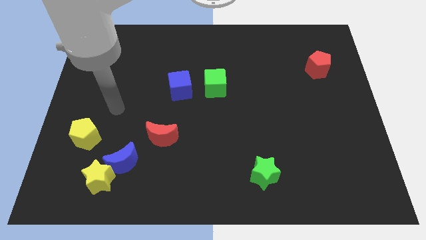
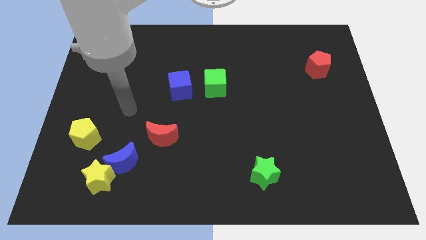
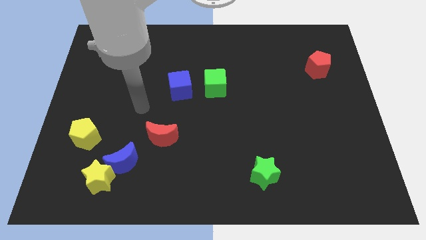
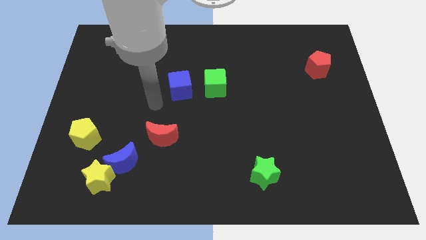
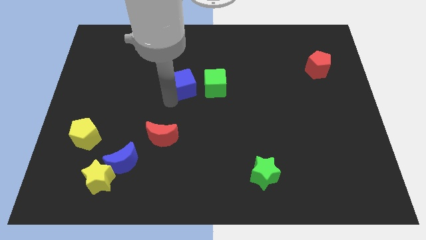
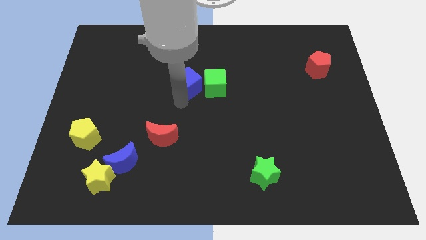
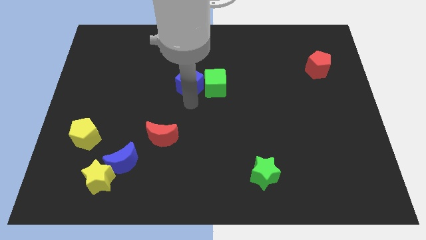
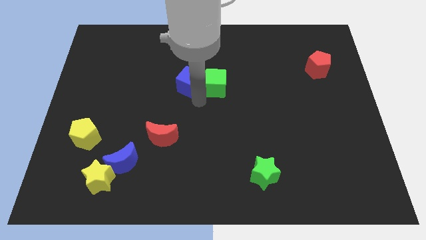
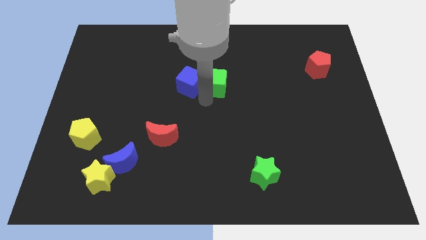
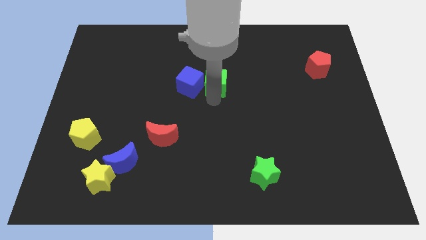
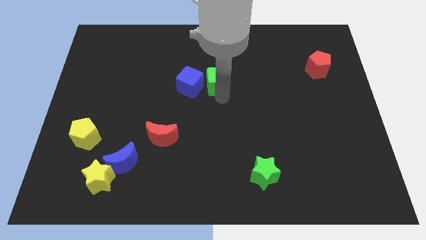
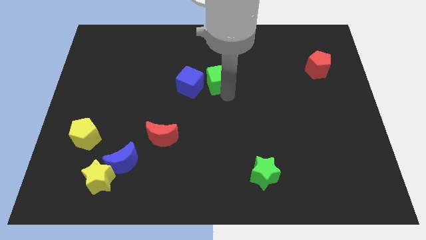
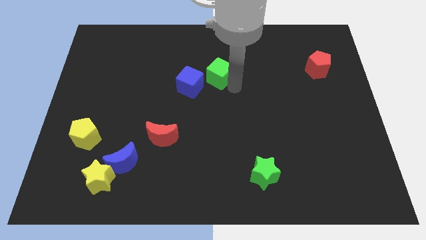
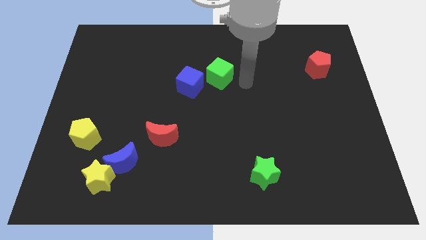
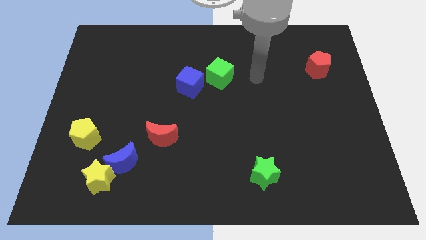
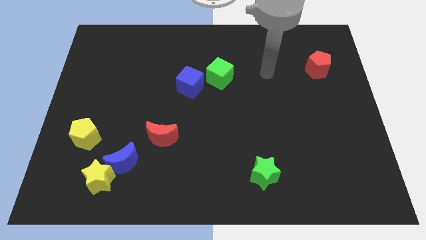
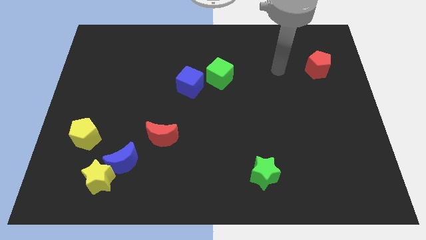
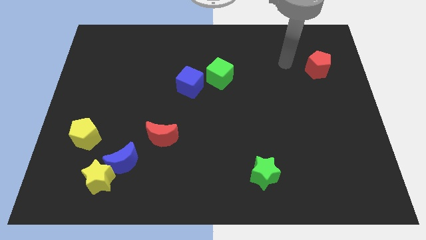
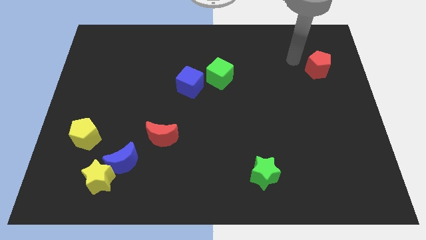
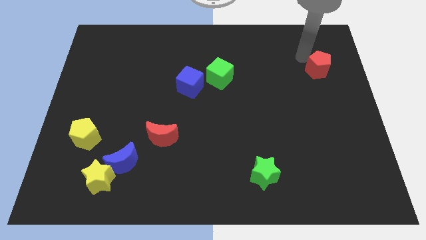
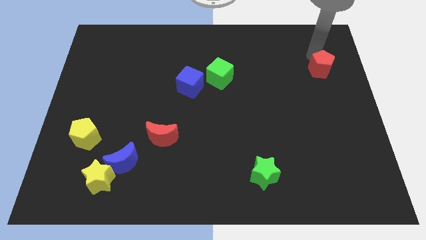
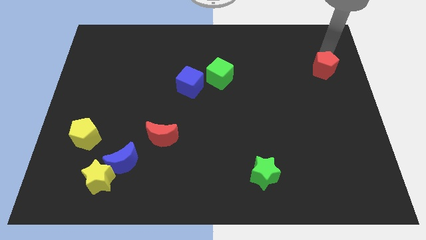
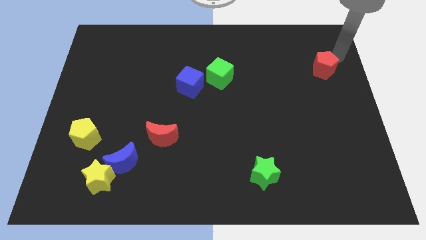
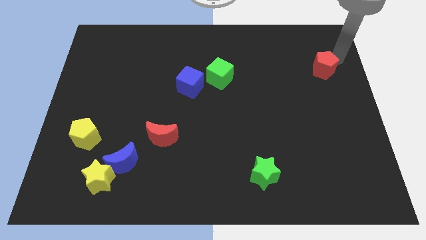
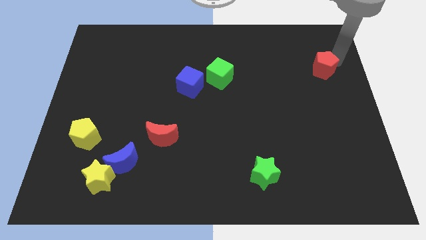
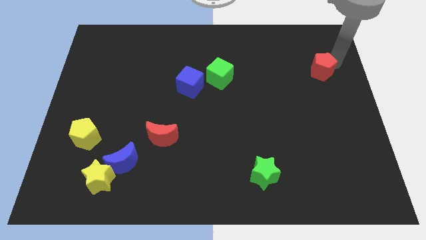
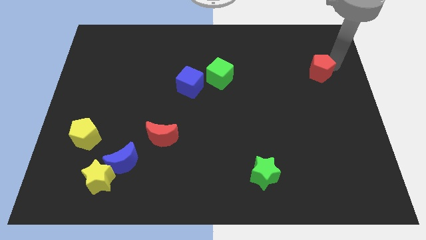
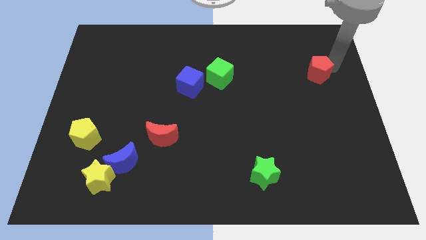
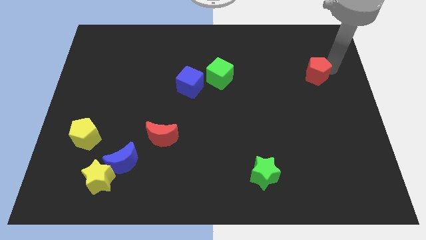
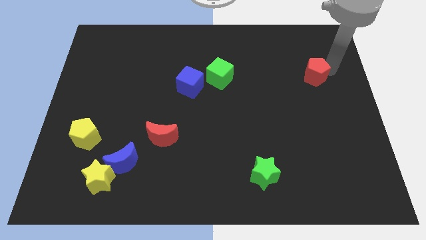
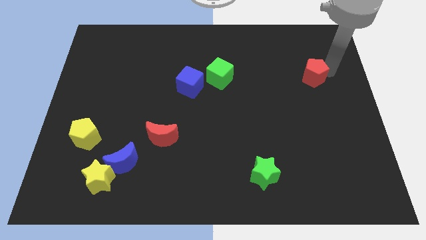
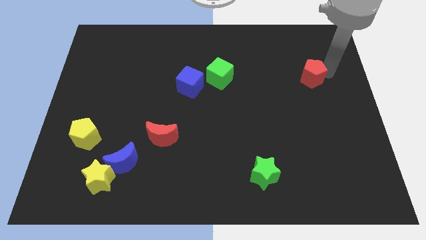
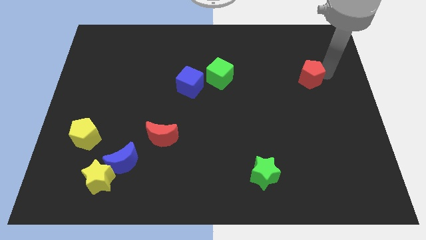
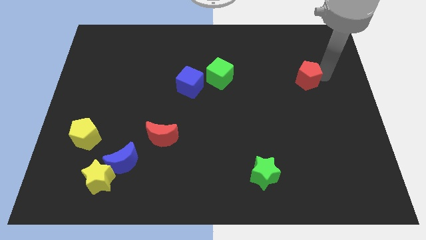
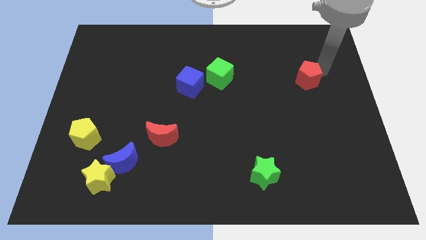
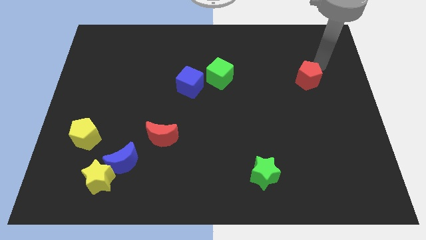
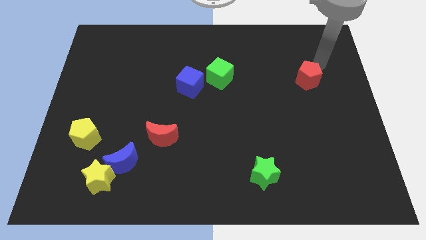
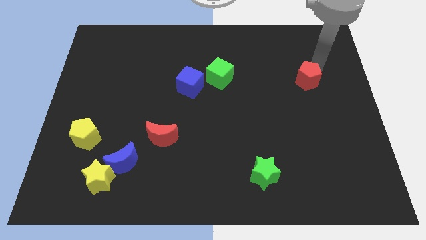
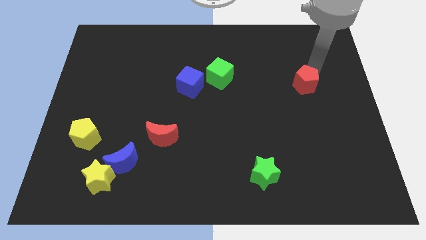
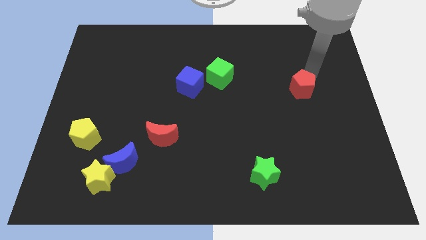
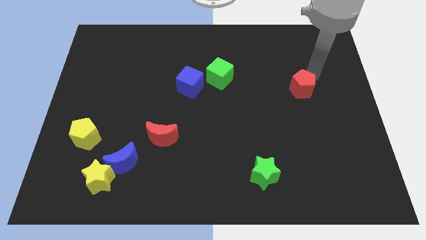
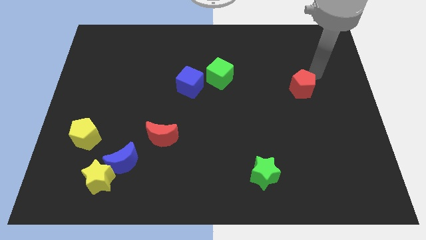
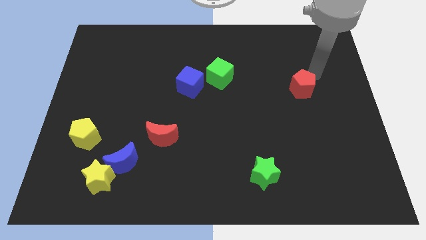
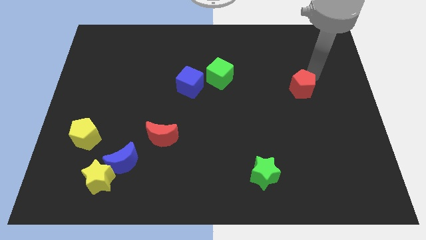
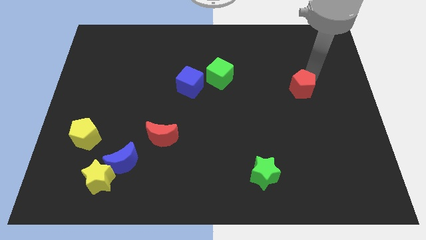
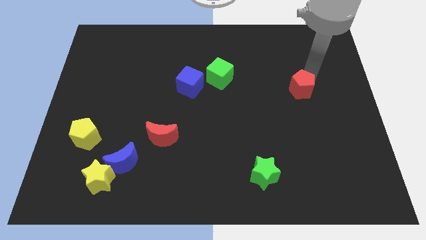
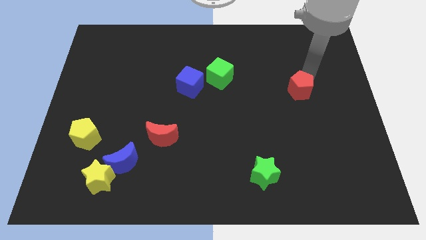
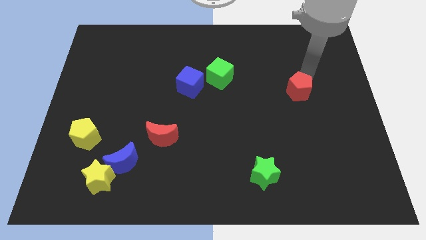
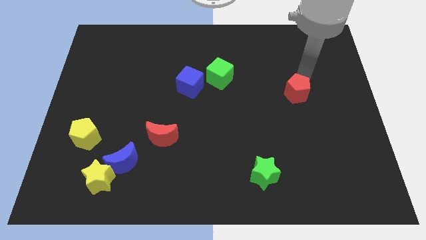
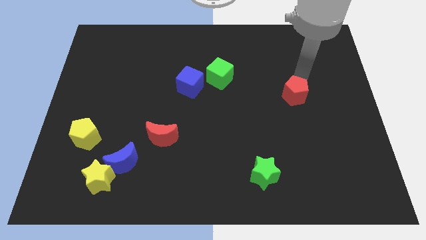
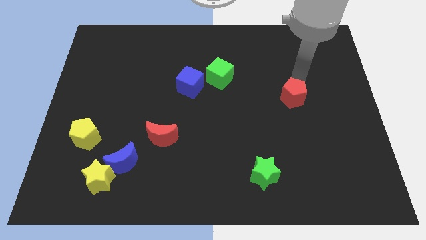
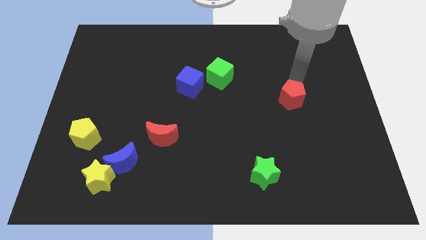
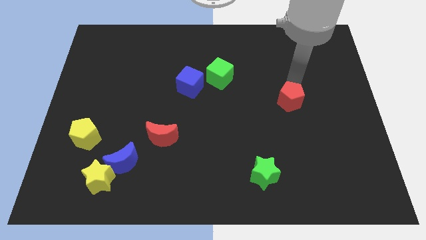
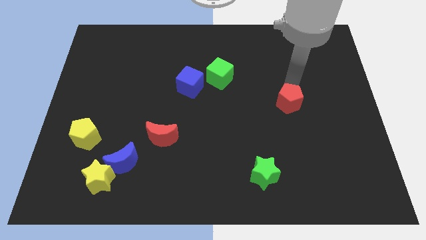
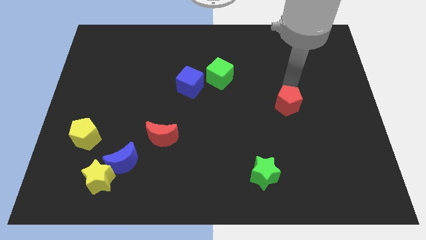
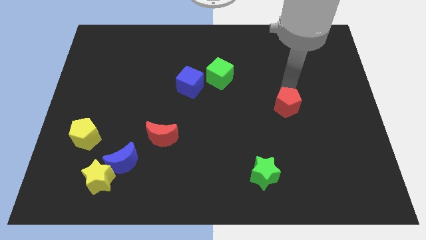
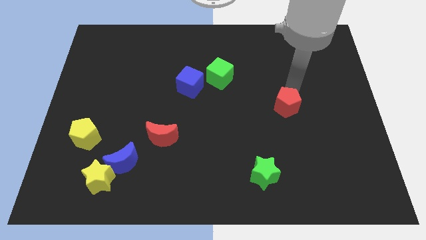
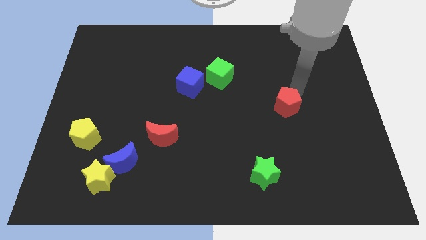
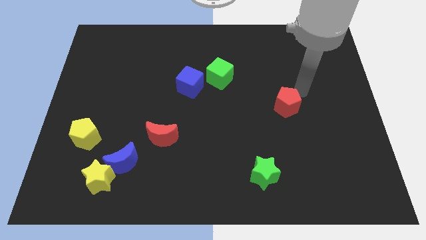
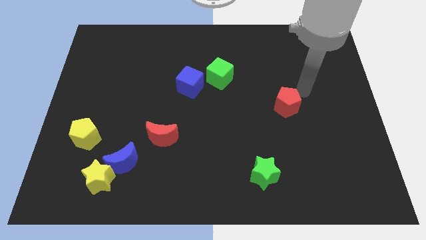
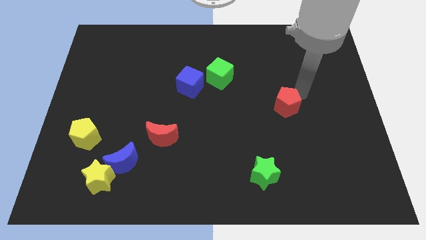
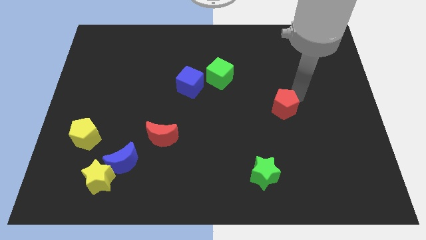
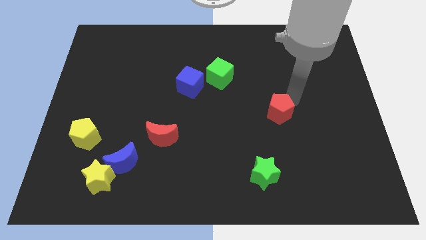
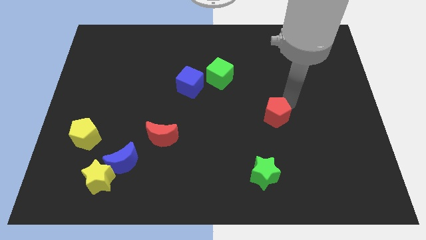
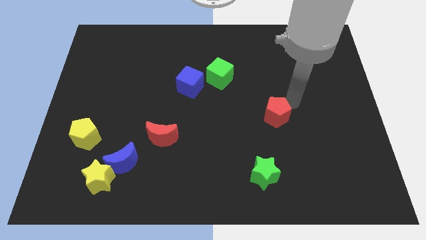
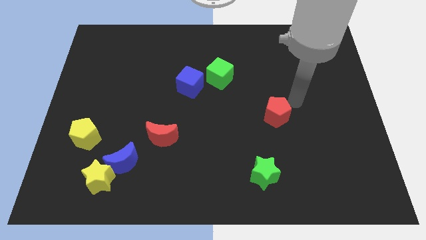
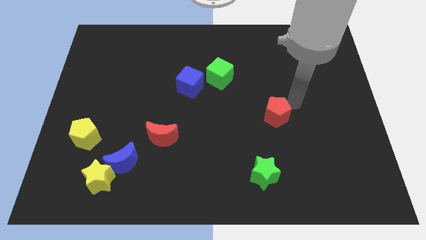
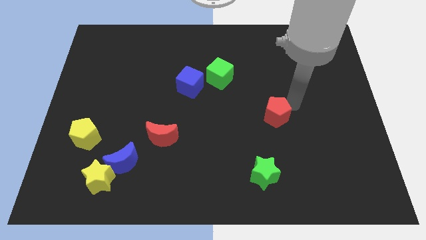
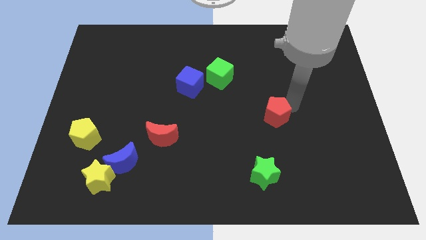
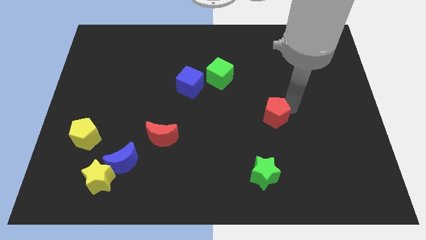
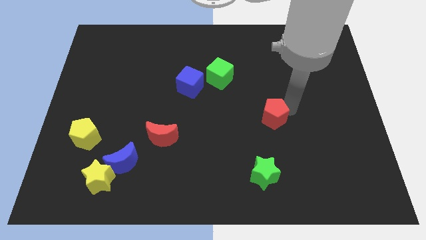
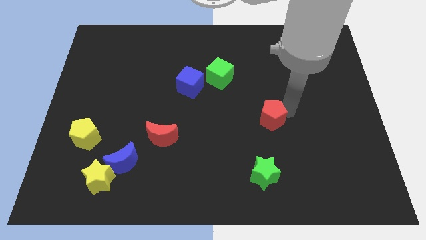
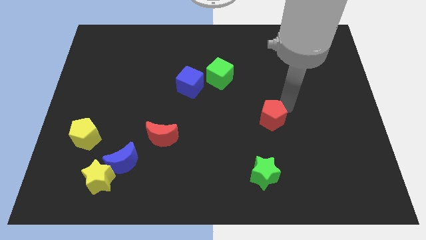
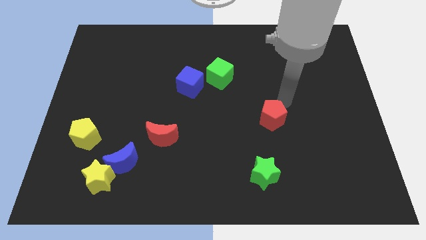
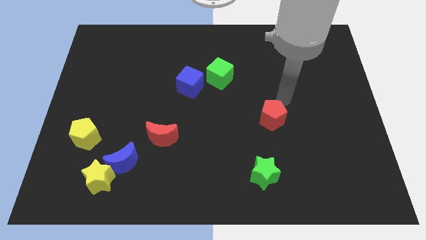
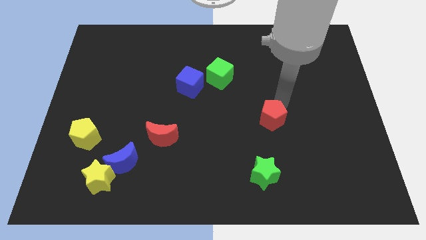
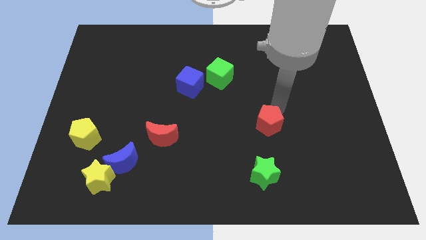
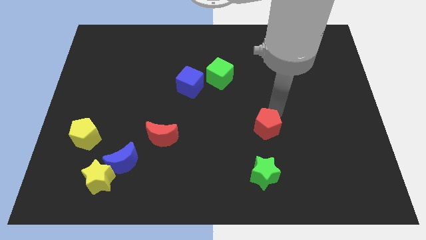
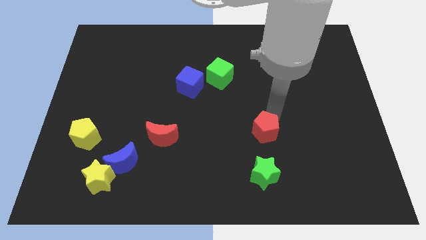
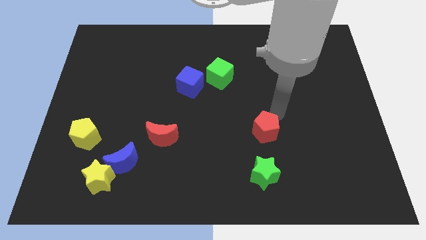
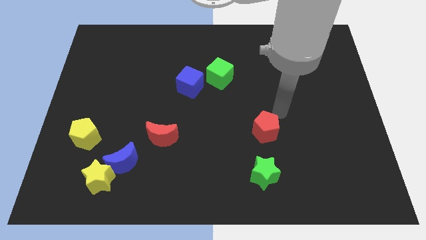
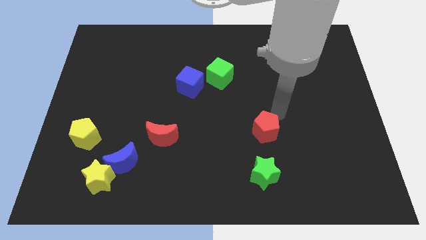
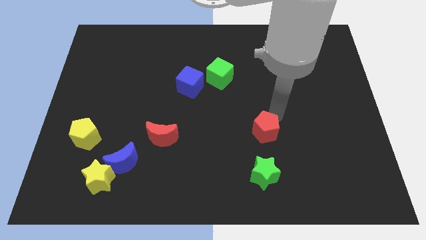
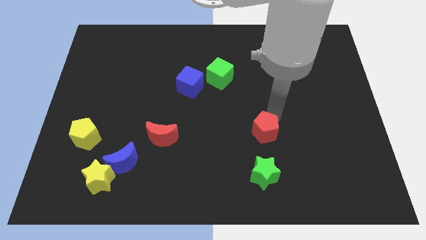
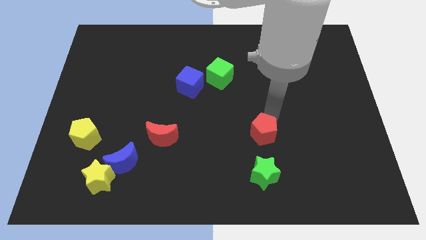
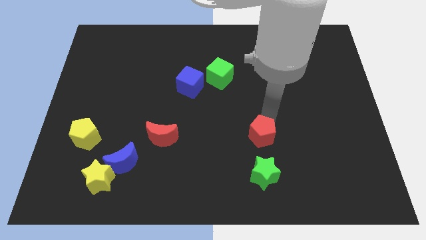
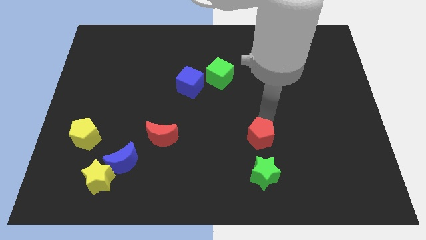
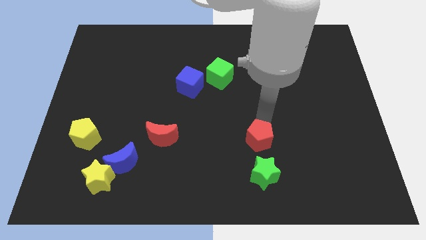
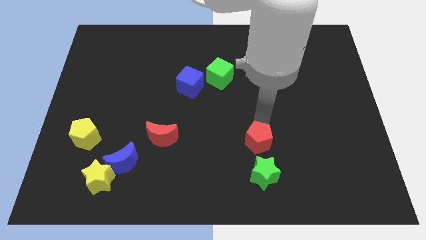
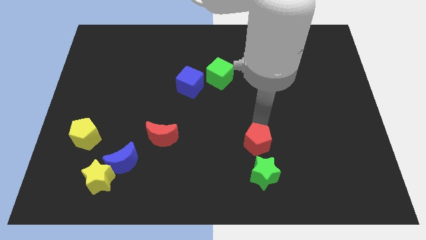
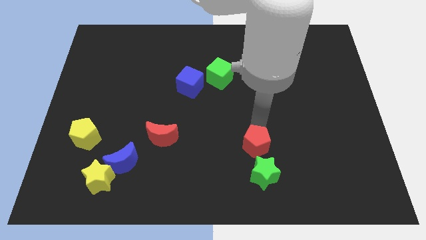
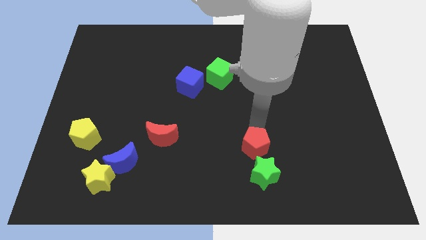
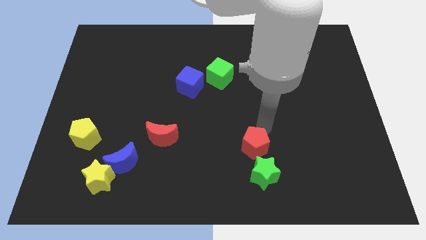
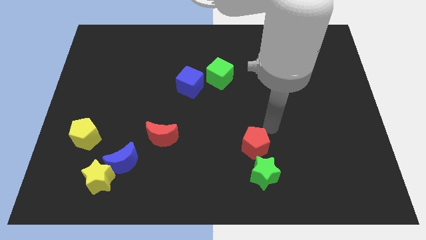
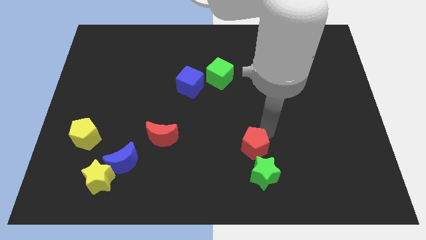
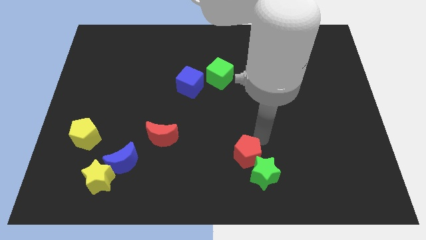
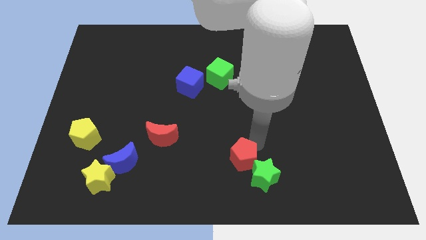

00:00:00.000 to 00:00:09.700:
move the red pentagon to the bottom side
